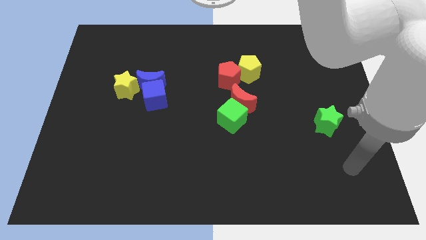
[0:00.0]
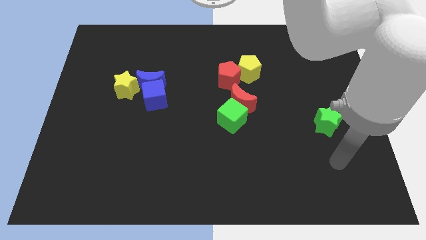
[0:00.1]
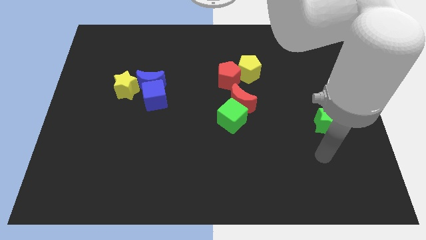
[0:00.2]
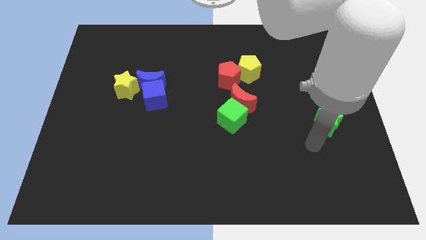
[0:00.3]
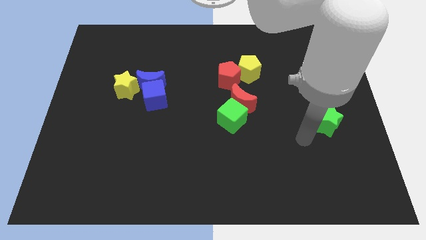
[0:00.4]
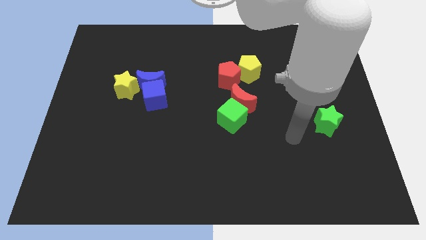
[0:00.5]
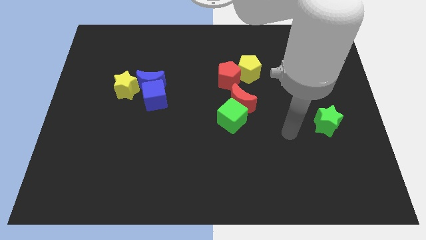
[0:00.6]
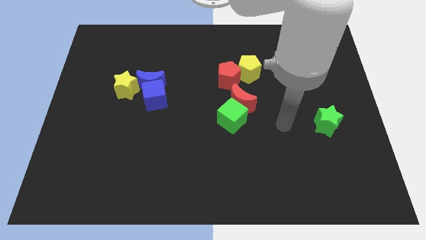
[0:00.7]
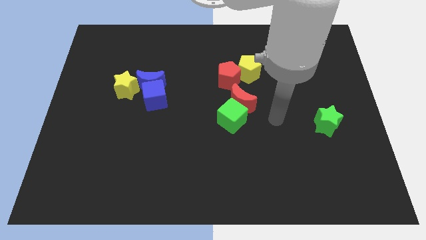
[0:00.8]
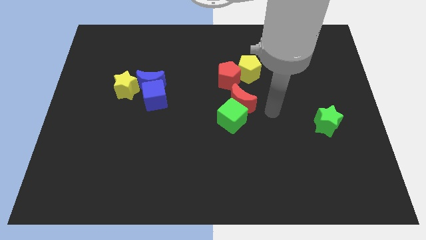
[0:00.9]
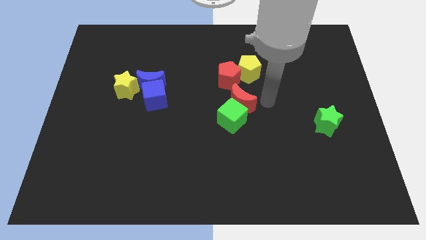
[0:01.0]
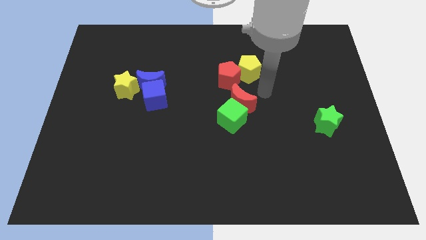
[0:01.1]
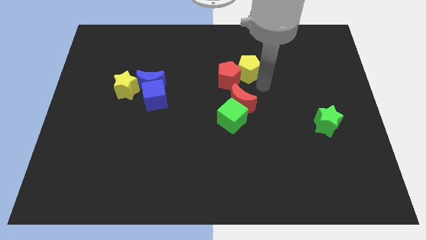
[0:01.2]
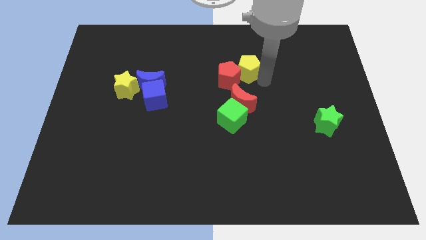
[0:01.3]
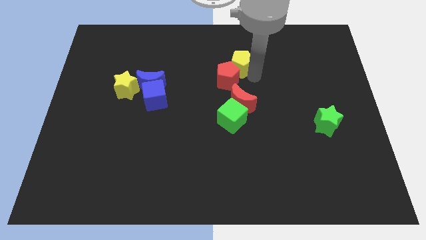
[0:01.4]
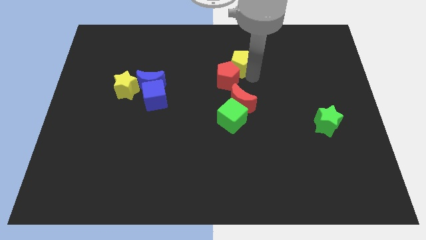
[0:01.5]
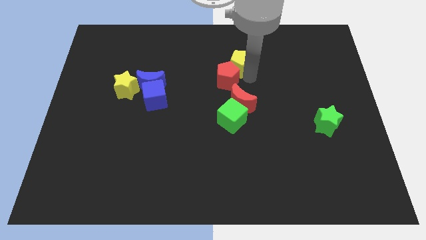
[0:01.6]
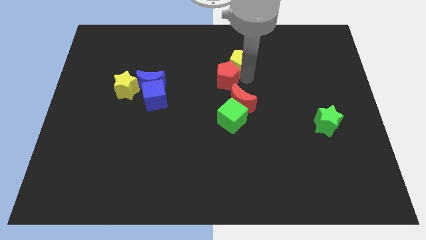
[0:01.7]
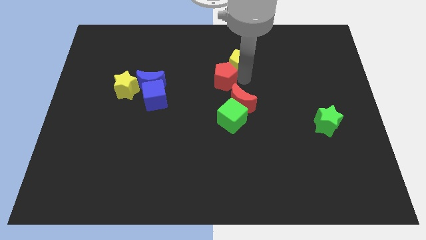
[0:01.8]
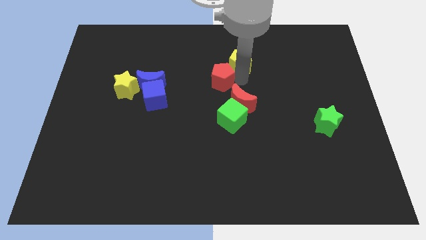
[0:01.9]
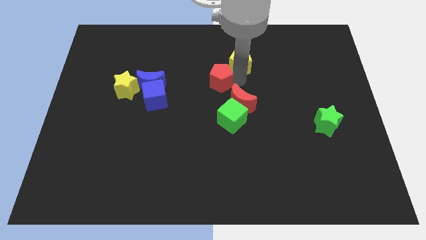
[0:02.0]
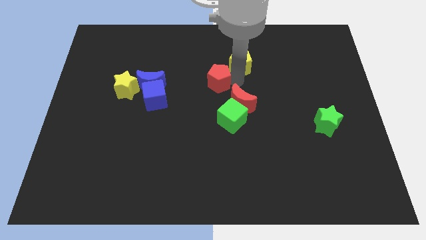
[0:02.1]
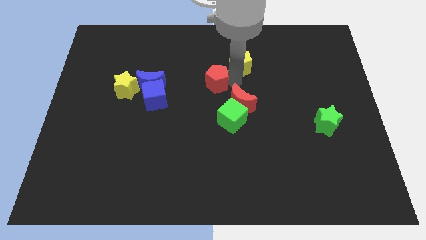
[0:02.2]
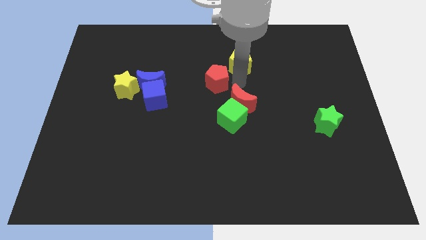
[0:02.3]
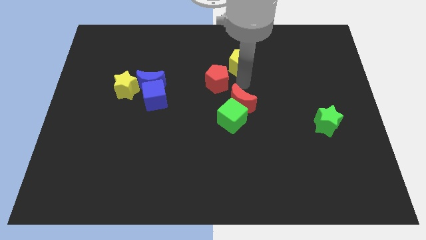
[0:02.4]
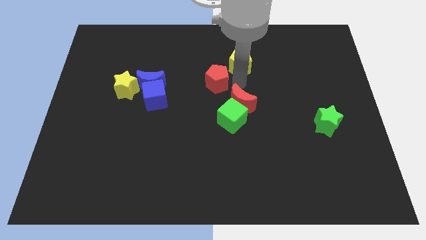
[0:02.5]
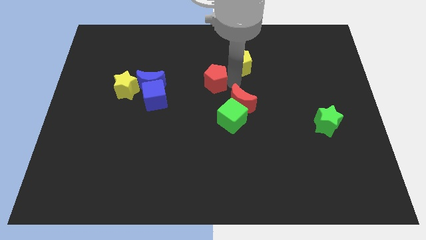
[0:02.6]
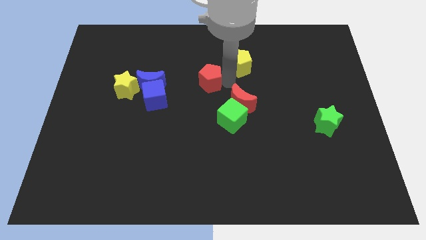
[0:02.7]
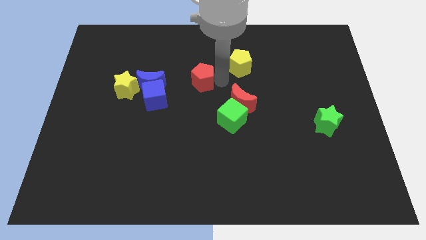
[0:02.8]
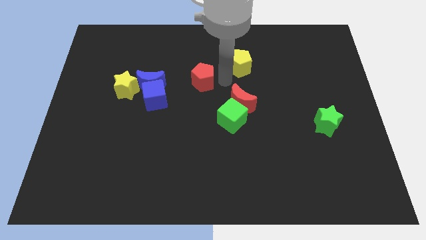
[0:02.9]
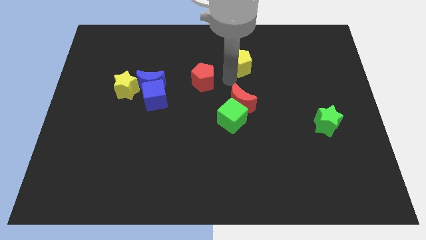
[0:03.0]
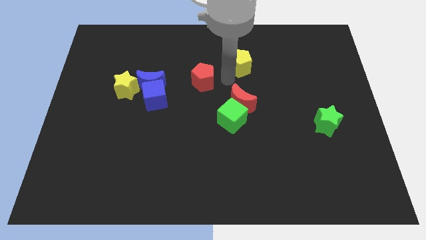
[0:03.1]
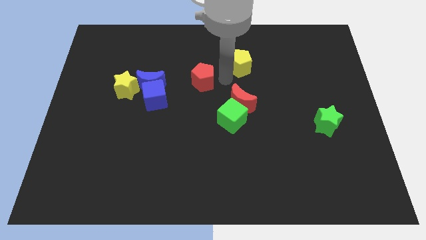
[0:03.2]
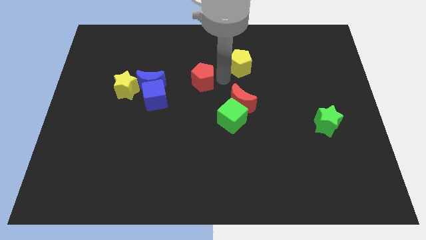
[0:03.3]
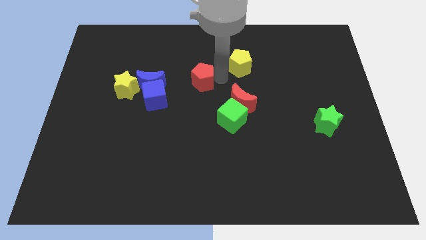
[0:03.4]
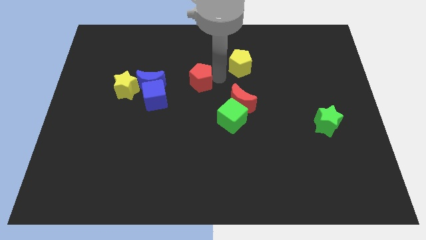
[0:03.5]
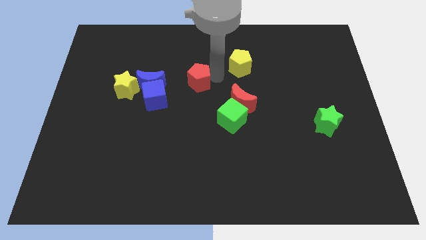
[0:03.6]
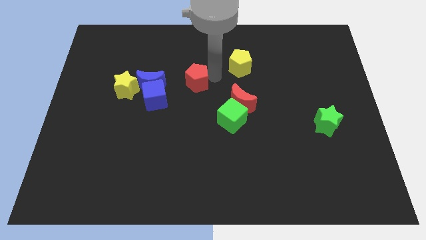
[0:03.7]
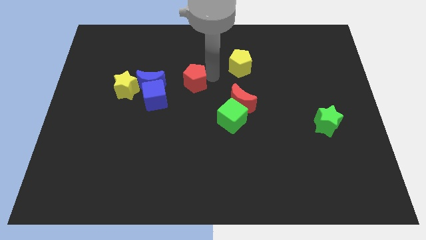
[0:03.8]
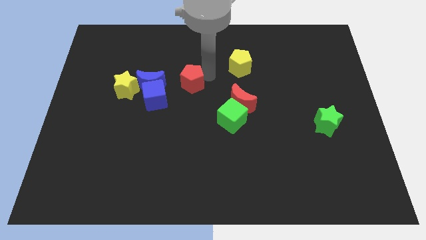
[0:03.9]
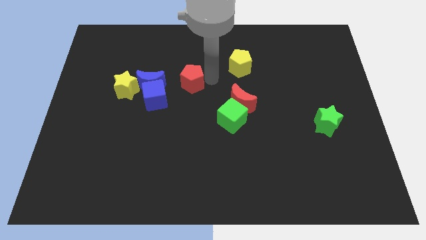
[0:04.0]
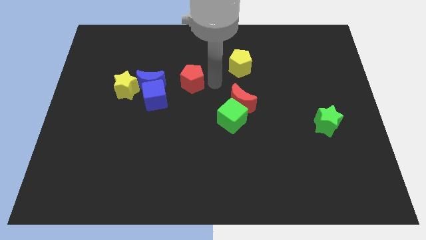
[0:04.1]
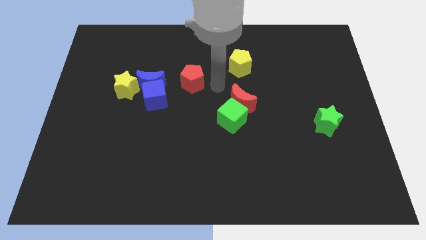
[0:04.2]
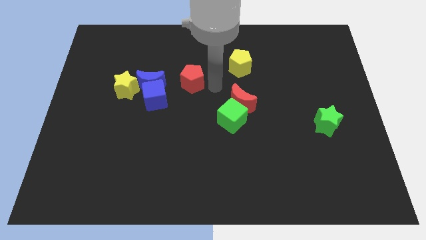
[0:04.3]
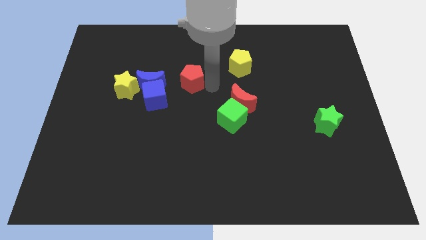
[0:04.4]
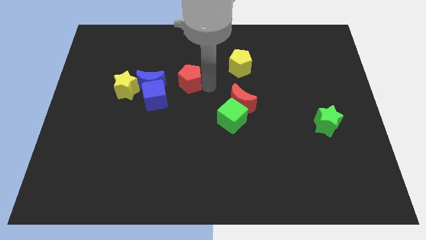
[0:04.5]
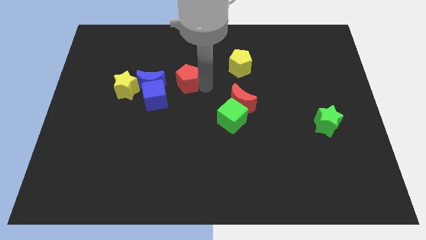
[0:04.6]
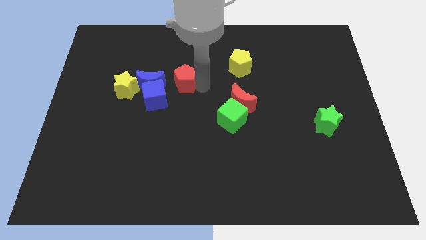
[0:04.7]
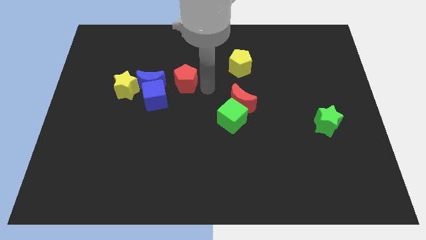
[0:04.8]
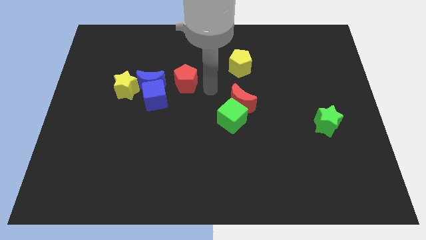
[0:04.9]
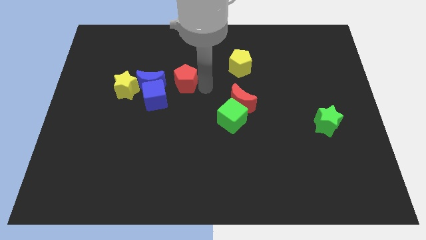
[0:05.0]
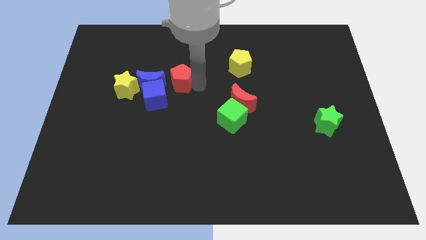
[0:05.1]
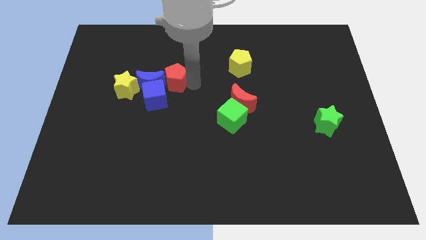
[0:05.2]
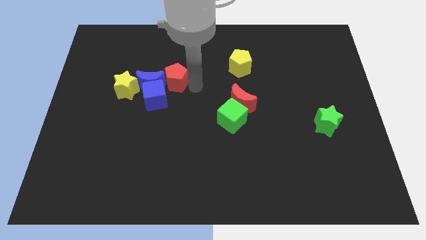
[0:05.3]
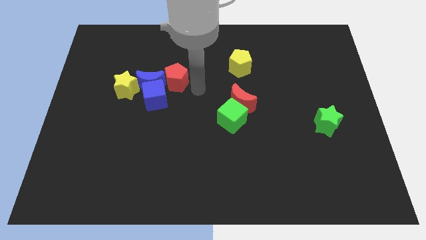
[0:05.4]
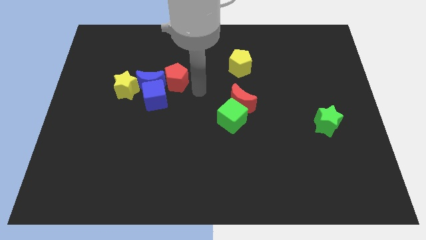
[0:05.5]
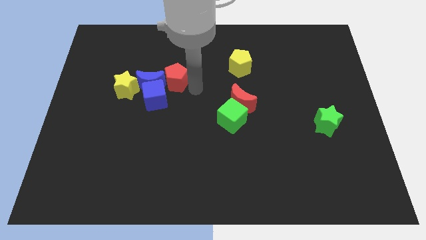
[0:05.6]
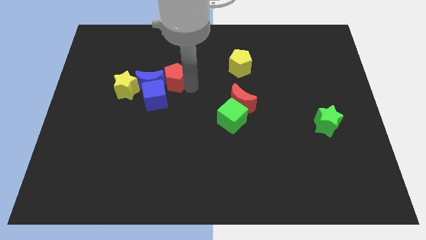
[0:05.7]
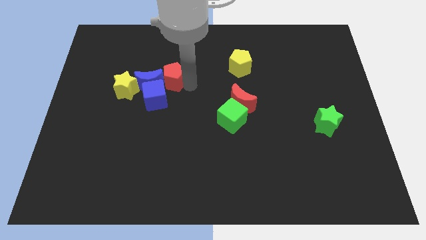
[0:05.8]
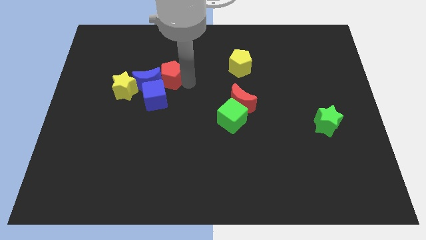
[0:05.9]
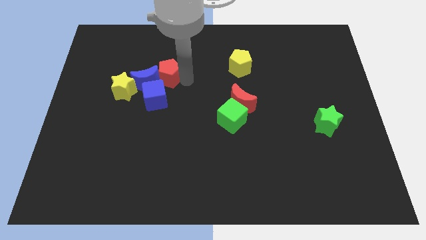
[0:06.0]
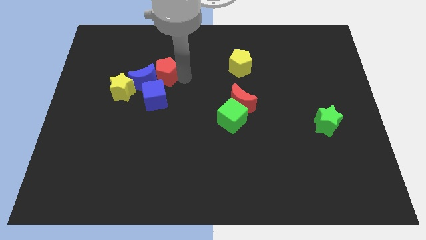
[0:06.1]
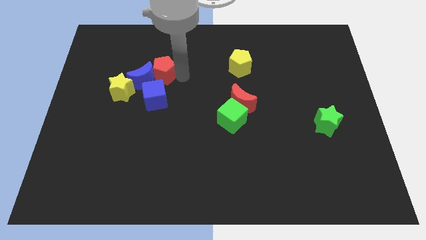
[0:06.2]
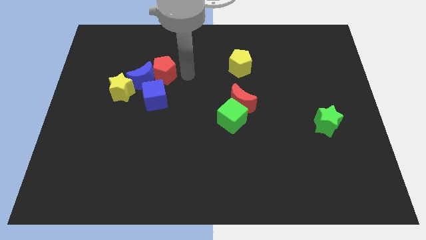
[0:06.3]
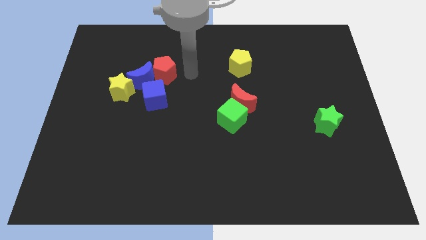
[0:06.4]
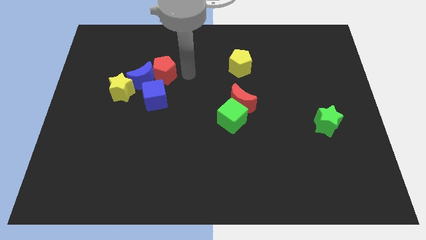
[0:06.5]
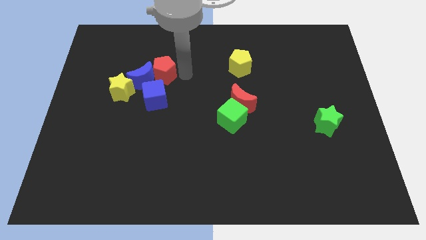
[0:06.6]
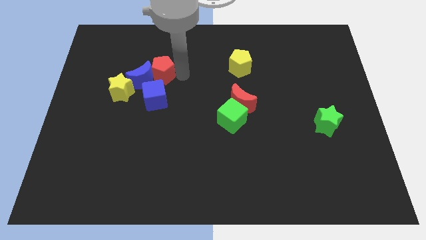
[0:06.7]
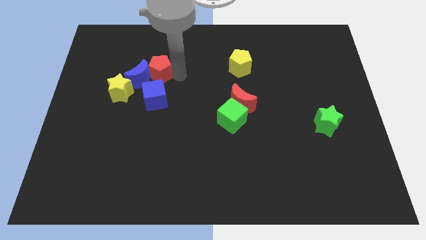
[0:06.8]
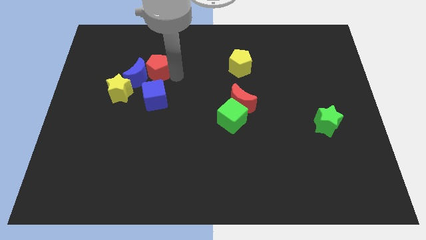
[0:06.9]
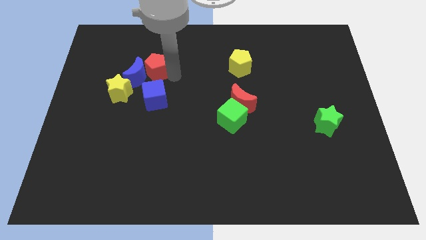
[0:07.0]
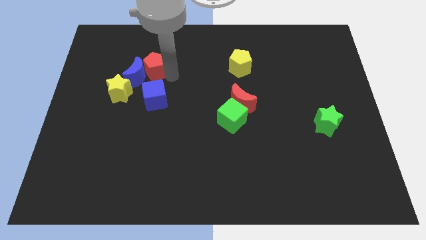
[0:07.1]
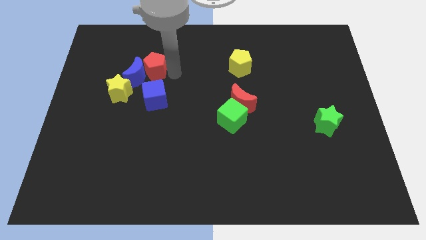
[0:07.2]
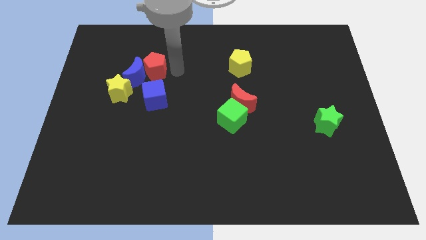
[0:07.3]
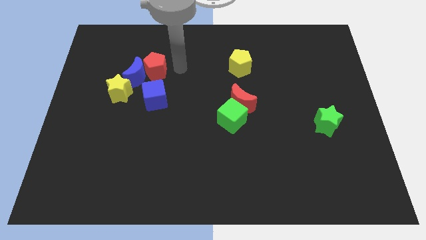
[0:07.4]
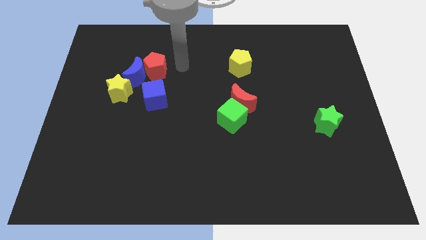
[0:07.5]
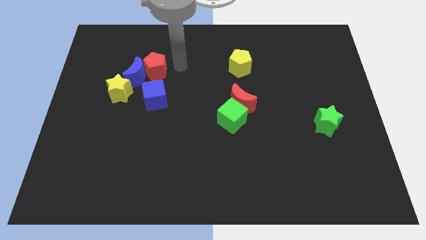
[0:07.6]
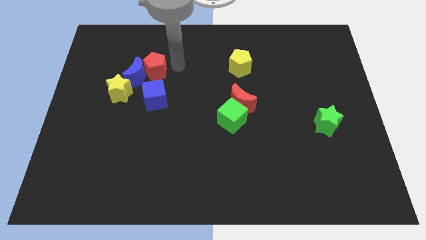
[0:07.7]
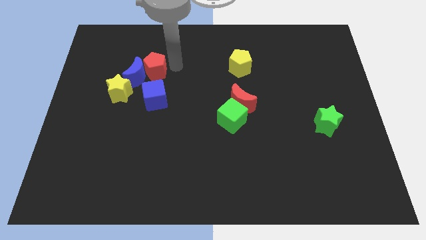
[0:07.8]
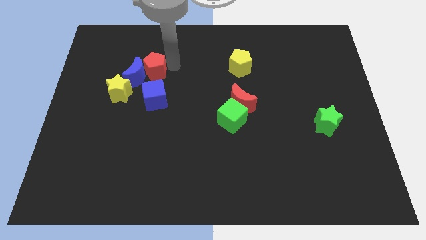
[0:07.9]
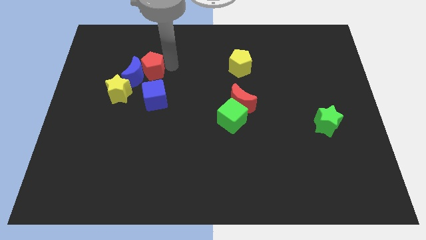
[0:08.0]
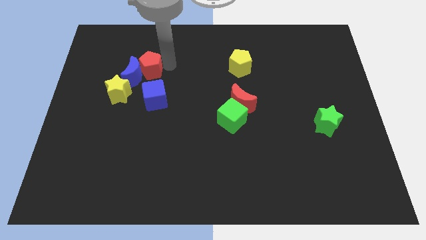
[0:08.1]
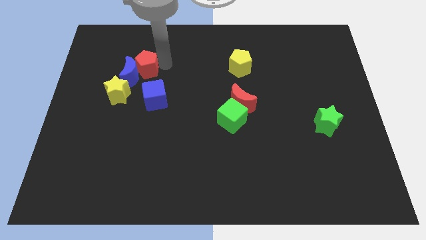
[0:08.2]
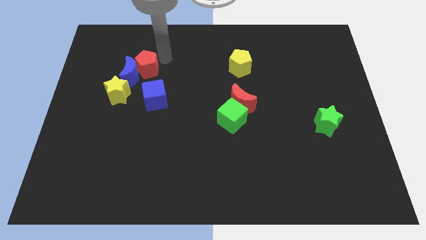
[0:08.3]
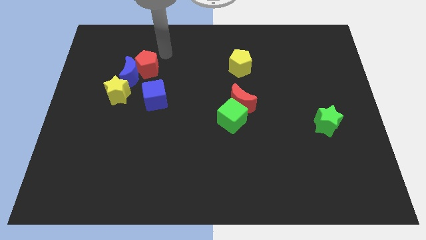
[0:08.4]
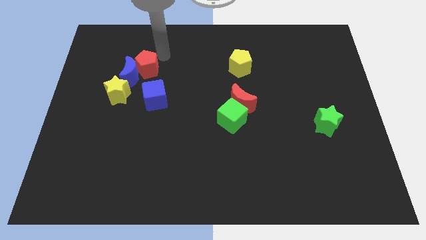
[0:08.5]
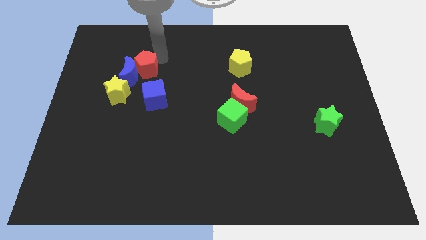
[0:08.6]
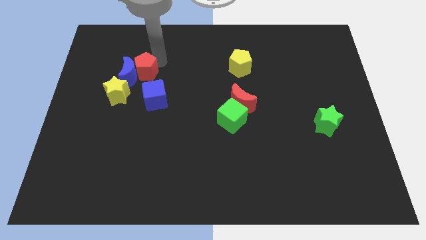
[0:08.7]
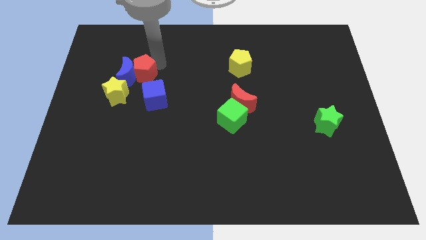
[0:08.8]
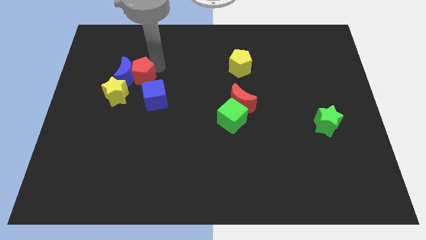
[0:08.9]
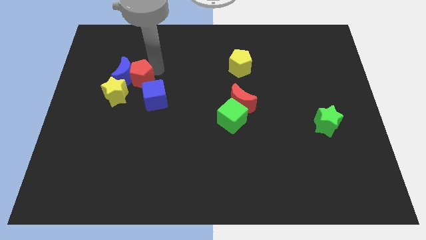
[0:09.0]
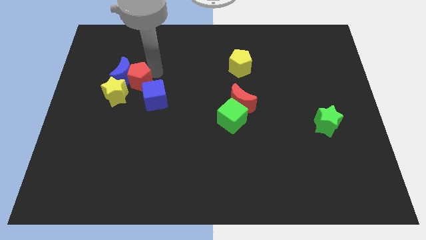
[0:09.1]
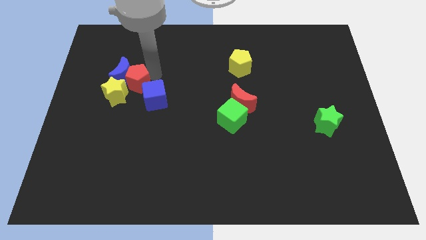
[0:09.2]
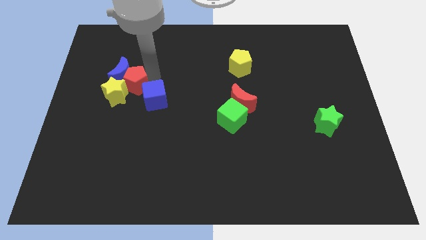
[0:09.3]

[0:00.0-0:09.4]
put the red pentagon towards the yellow star
